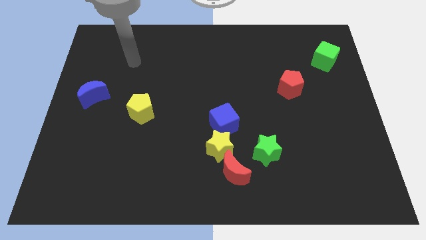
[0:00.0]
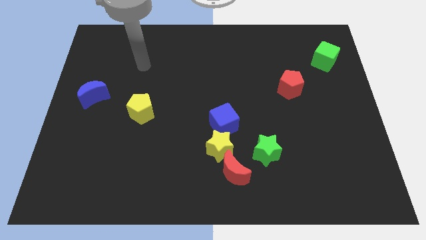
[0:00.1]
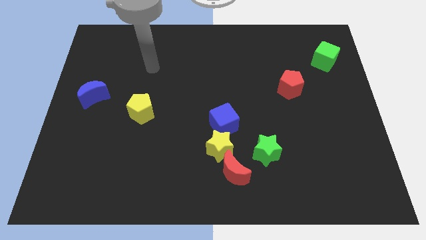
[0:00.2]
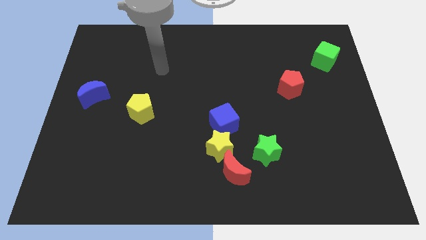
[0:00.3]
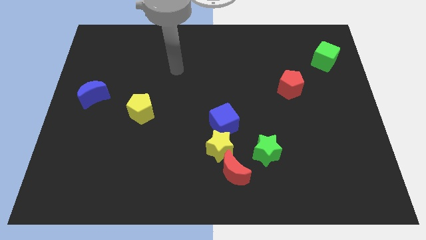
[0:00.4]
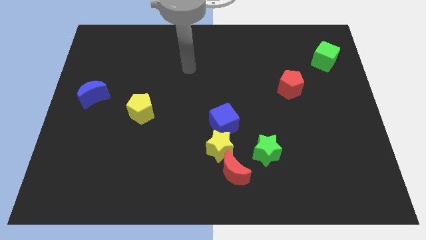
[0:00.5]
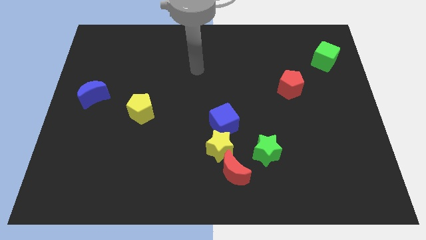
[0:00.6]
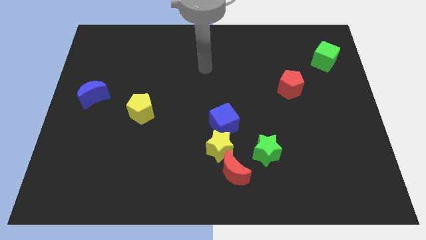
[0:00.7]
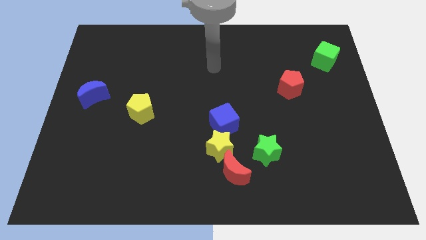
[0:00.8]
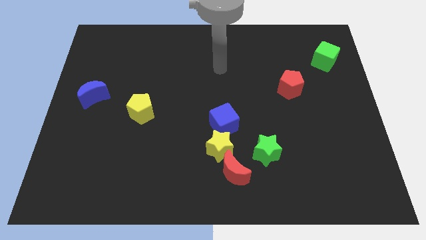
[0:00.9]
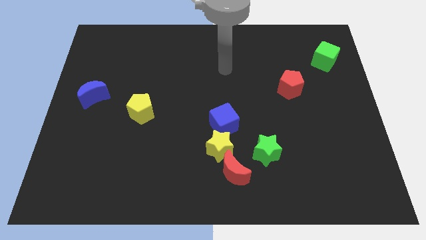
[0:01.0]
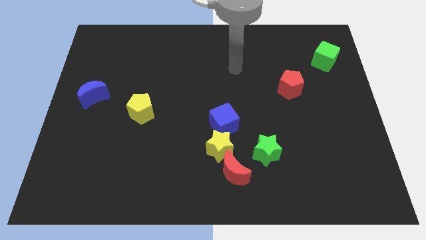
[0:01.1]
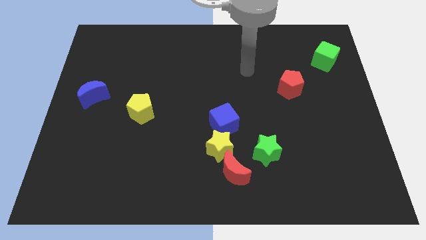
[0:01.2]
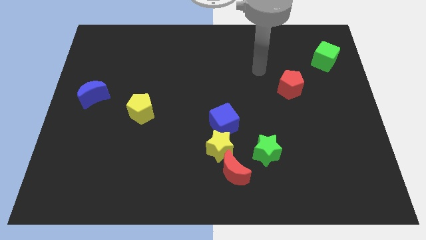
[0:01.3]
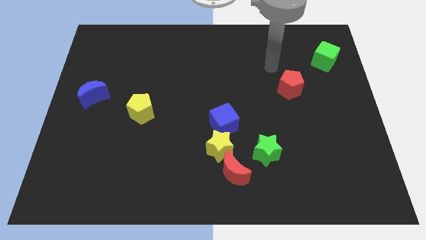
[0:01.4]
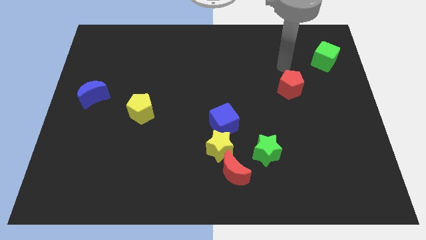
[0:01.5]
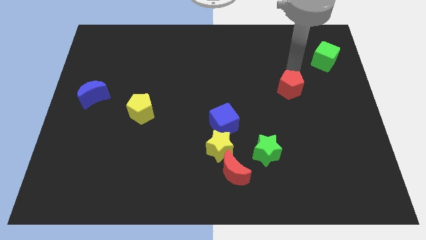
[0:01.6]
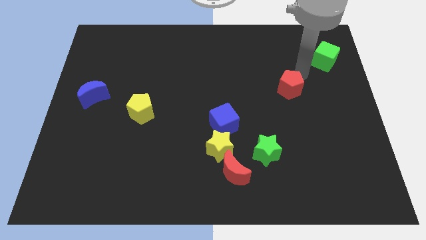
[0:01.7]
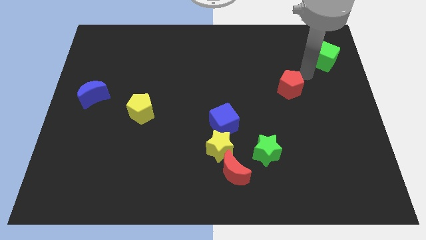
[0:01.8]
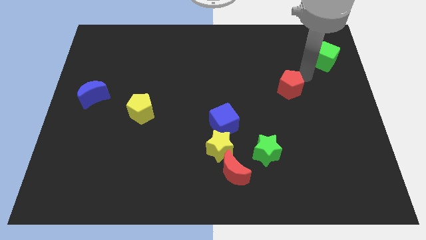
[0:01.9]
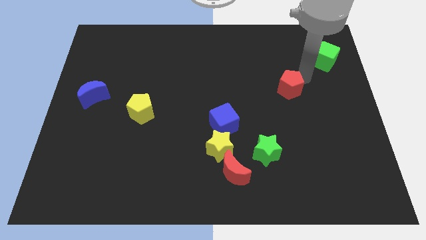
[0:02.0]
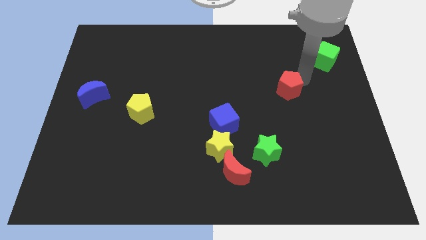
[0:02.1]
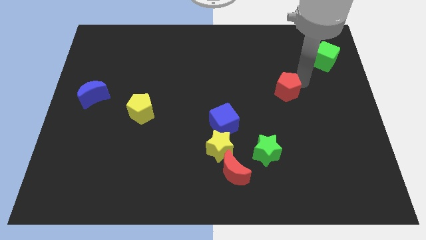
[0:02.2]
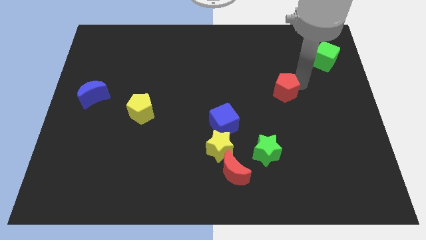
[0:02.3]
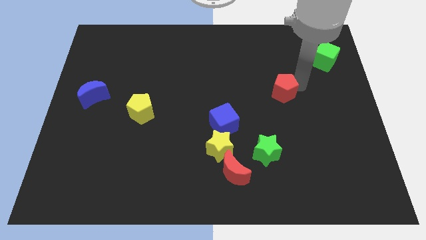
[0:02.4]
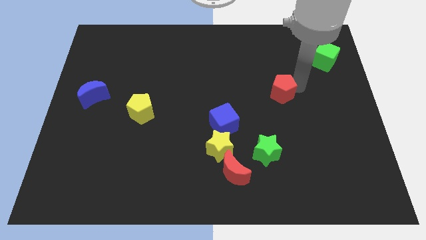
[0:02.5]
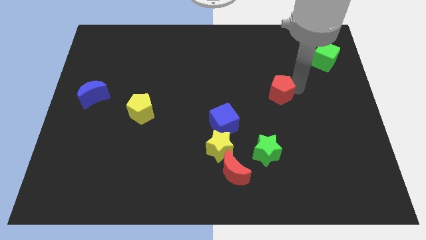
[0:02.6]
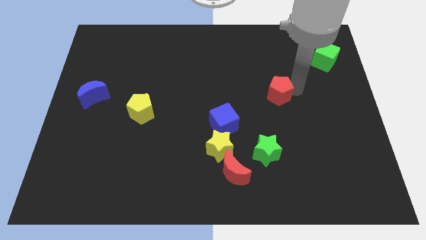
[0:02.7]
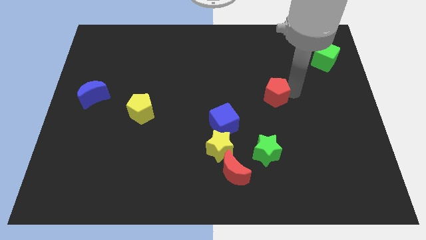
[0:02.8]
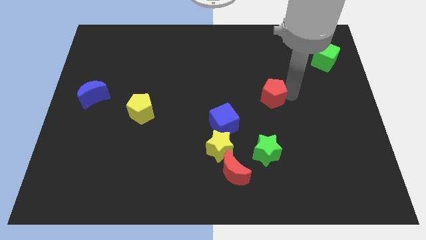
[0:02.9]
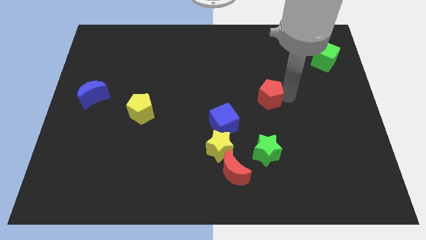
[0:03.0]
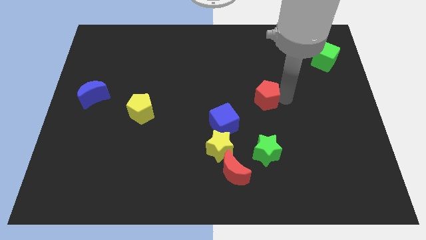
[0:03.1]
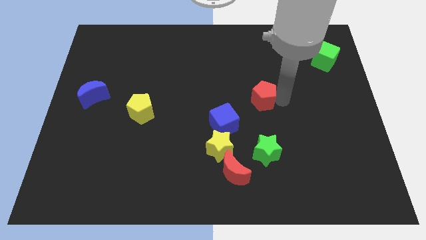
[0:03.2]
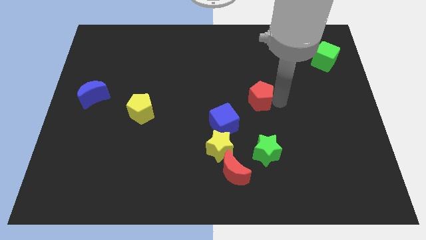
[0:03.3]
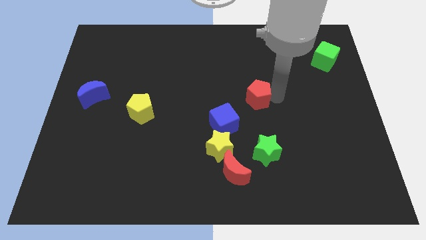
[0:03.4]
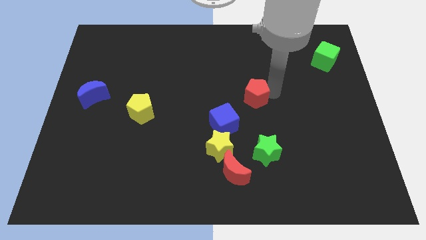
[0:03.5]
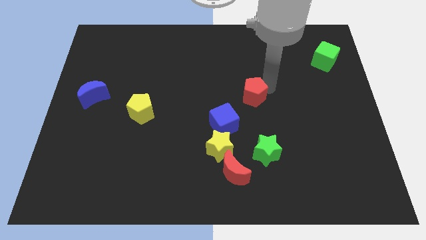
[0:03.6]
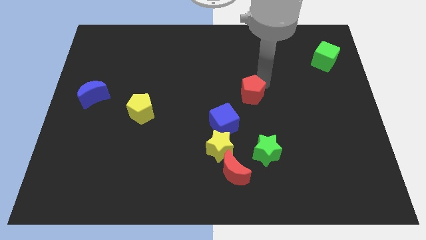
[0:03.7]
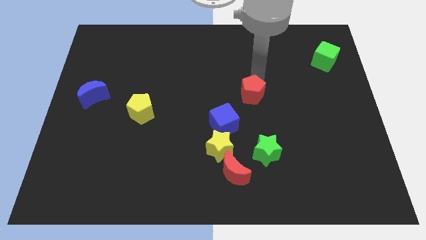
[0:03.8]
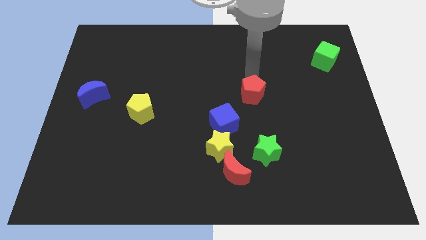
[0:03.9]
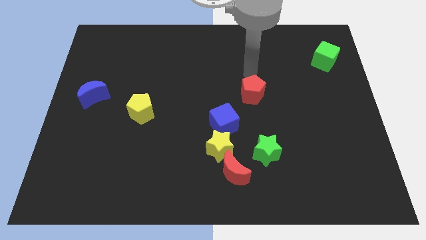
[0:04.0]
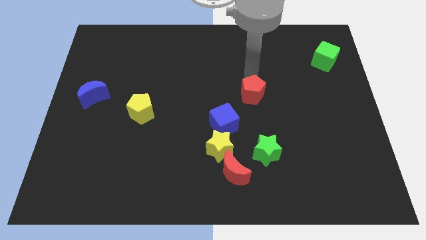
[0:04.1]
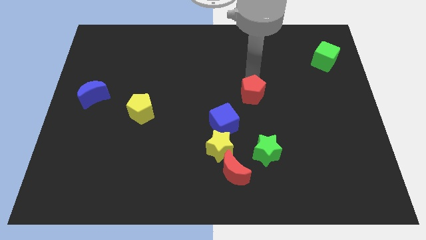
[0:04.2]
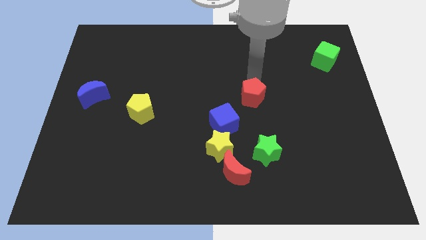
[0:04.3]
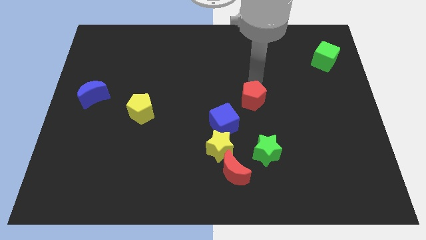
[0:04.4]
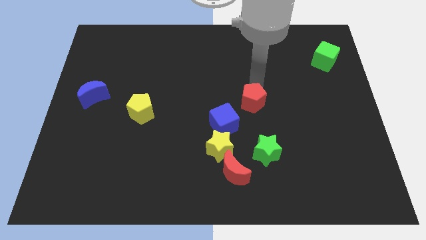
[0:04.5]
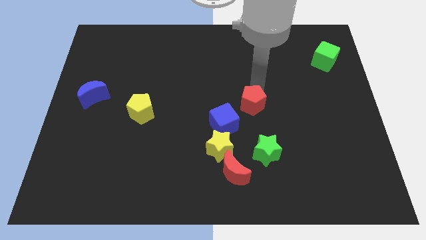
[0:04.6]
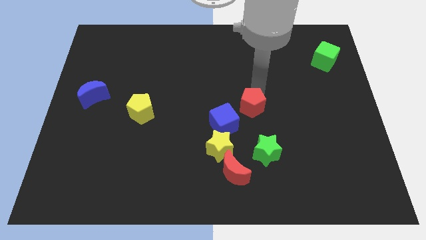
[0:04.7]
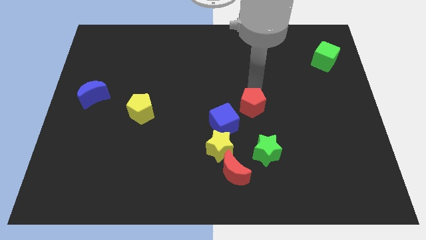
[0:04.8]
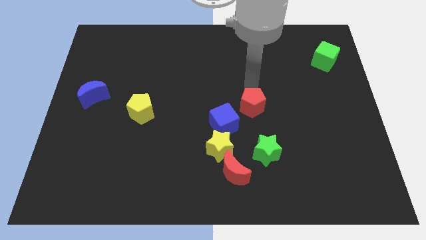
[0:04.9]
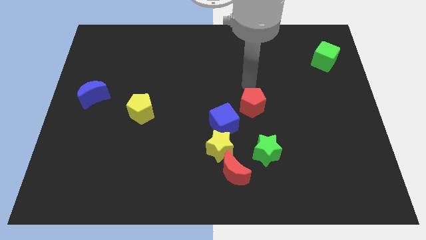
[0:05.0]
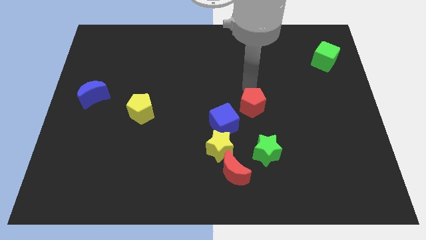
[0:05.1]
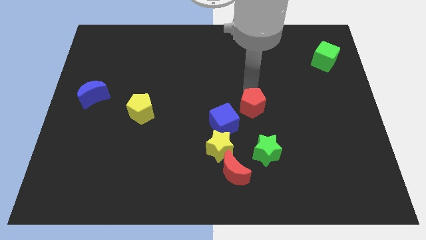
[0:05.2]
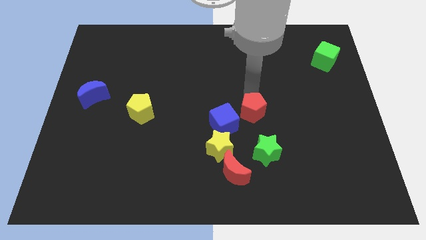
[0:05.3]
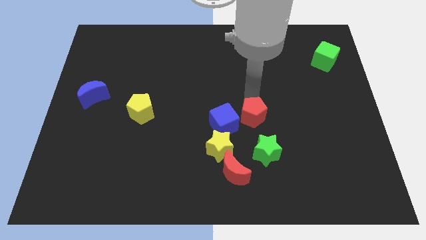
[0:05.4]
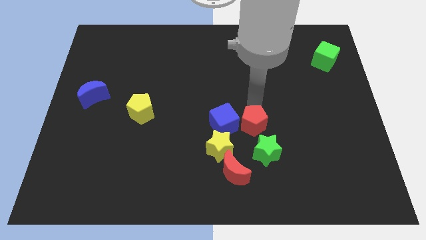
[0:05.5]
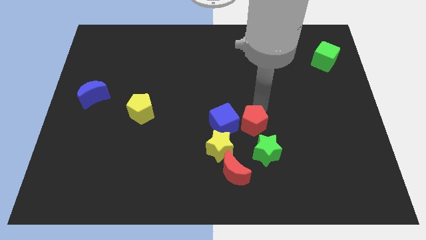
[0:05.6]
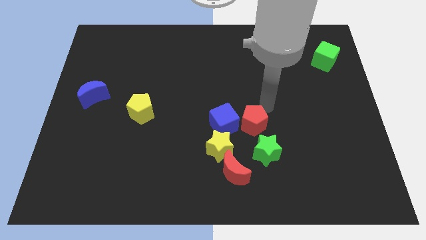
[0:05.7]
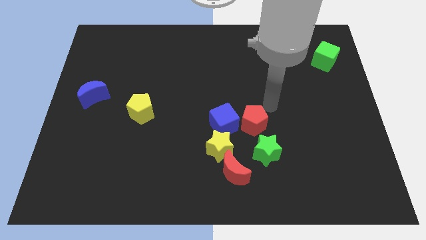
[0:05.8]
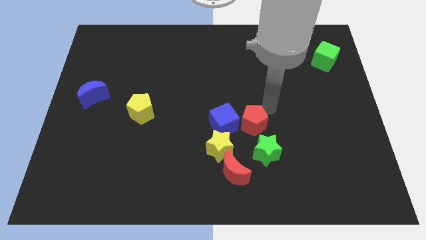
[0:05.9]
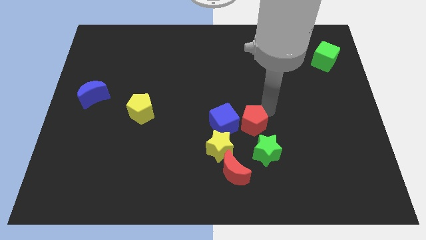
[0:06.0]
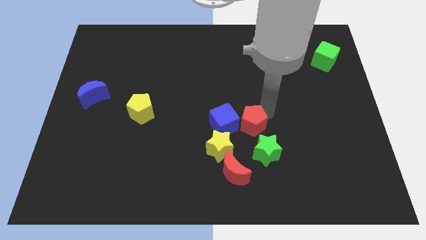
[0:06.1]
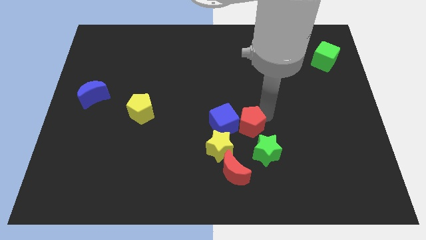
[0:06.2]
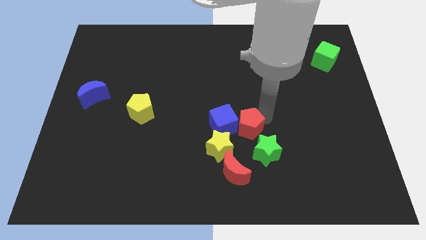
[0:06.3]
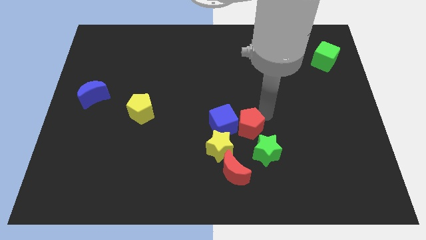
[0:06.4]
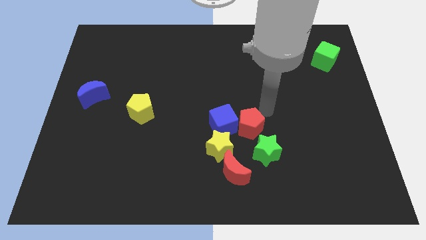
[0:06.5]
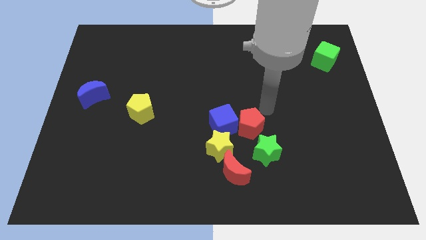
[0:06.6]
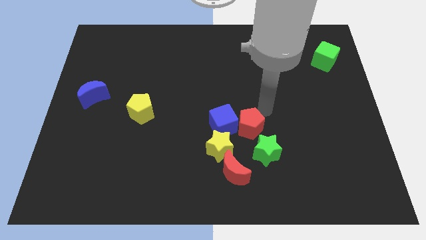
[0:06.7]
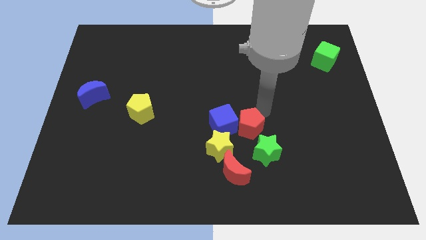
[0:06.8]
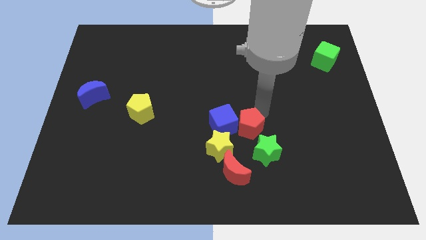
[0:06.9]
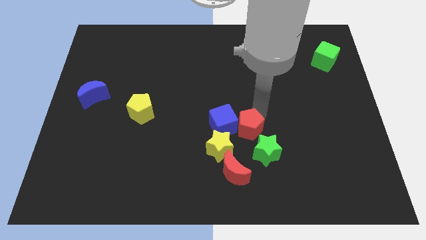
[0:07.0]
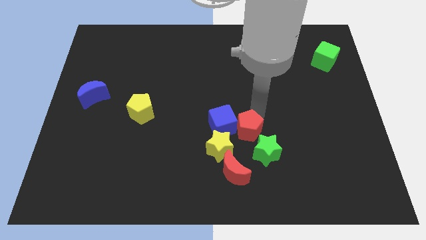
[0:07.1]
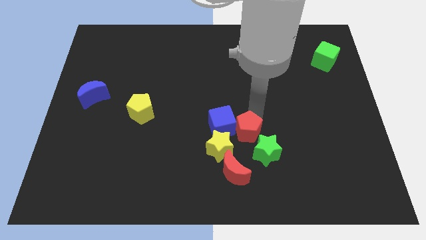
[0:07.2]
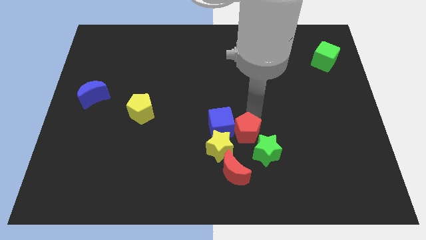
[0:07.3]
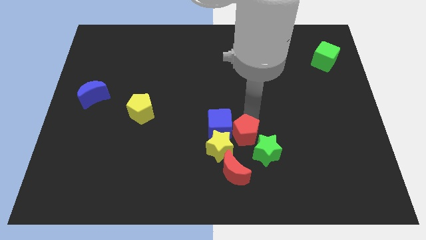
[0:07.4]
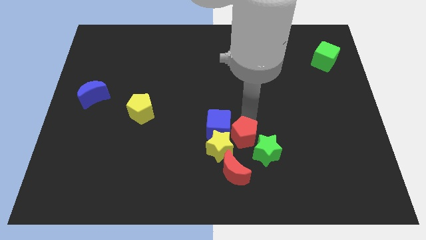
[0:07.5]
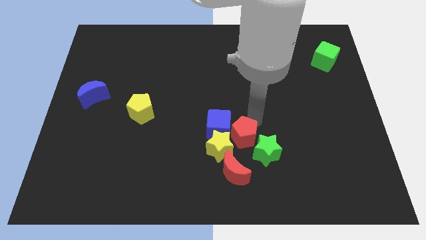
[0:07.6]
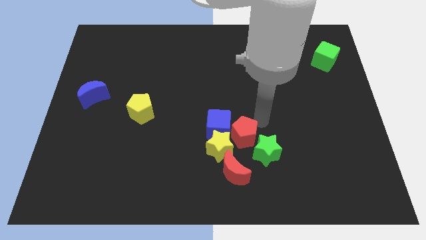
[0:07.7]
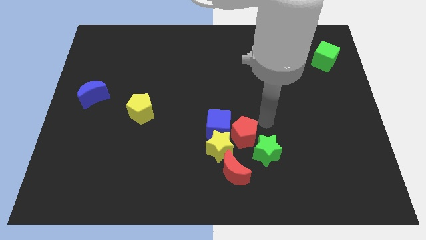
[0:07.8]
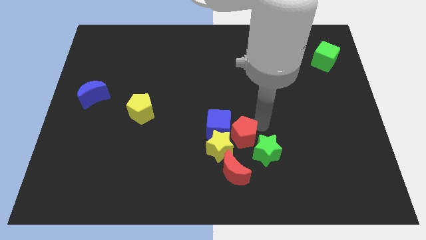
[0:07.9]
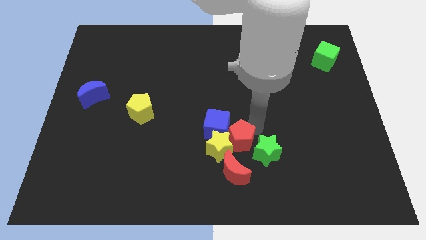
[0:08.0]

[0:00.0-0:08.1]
put the red pentagon next to the yellow star
